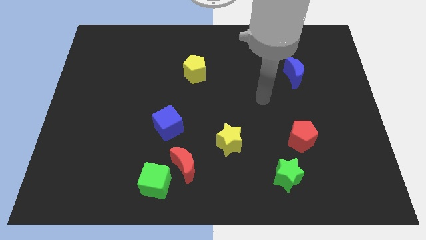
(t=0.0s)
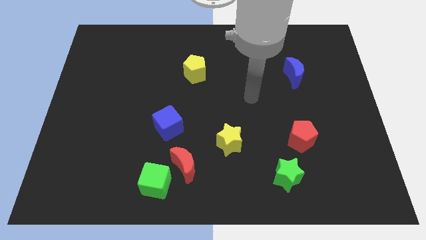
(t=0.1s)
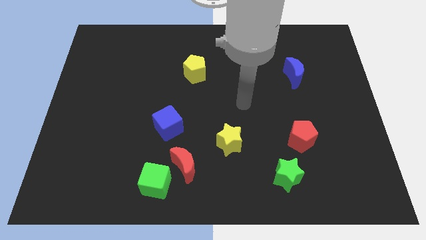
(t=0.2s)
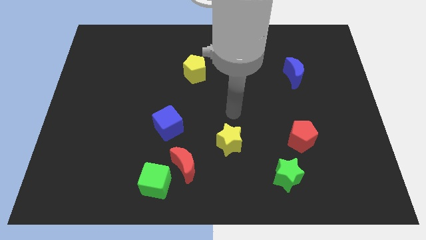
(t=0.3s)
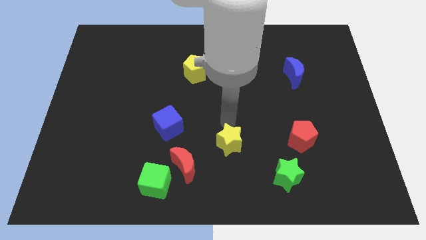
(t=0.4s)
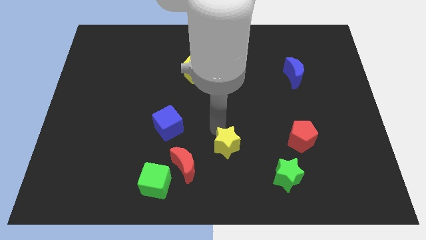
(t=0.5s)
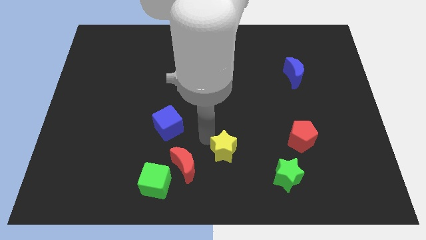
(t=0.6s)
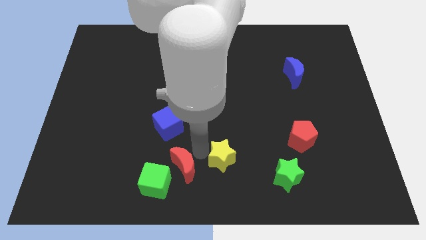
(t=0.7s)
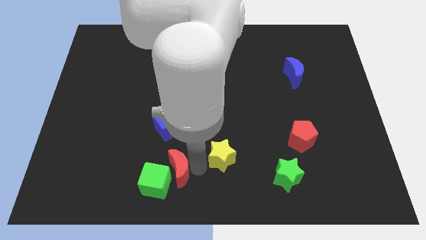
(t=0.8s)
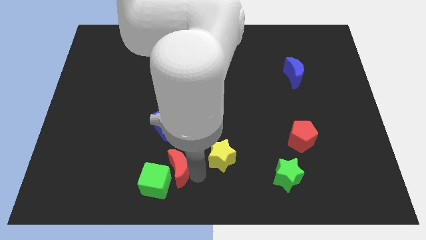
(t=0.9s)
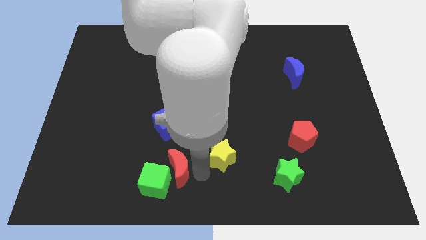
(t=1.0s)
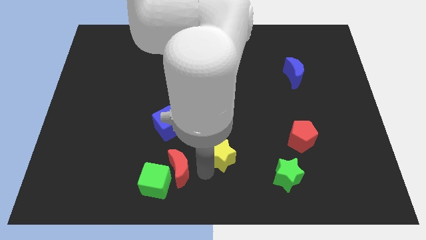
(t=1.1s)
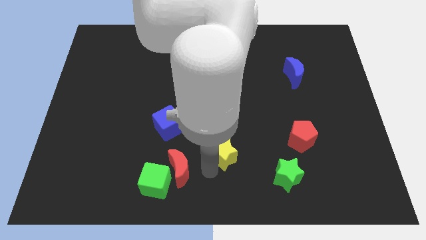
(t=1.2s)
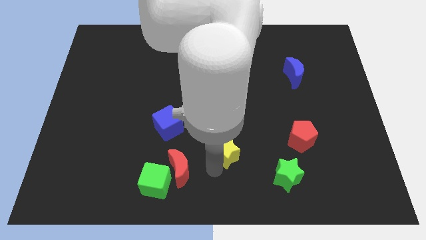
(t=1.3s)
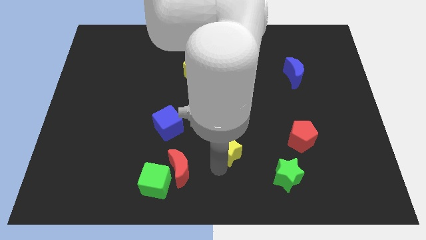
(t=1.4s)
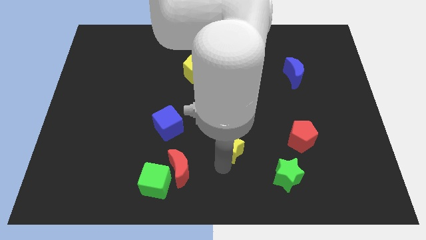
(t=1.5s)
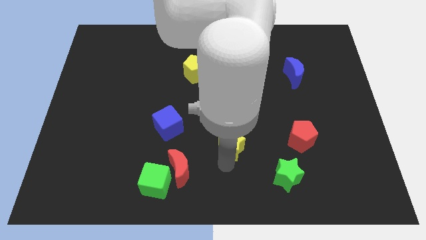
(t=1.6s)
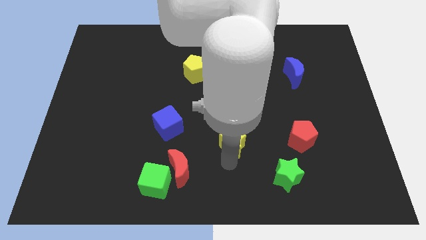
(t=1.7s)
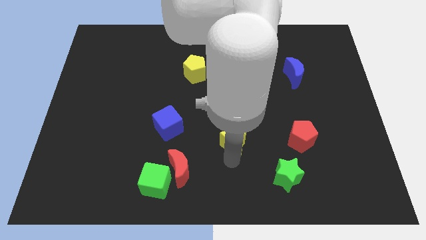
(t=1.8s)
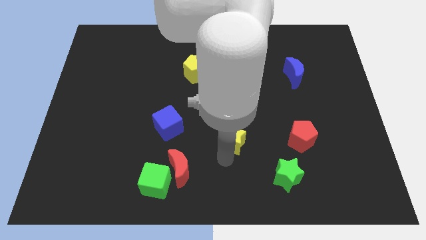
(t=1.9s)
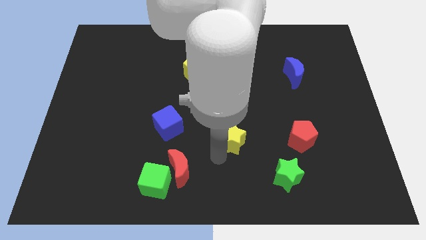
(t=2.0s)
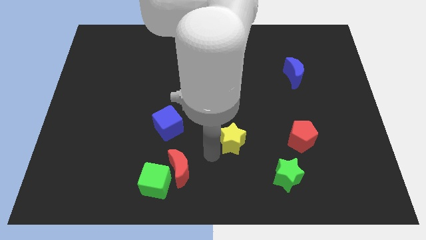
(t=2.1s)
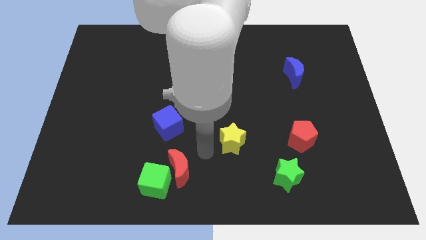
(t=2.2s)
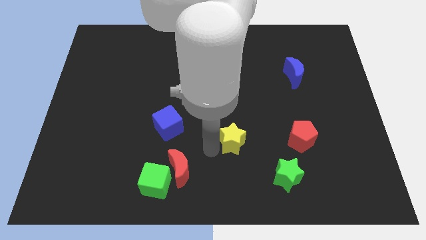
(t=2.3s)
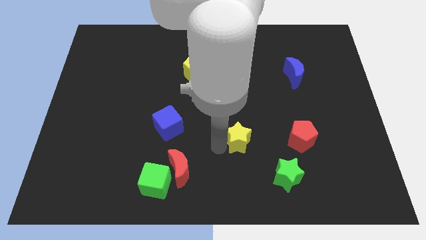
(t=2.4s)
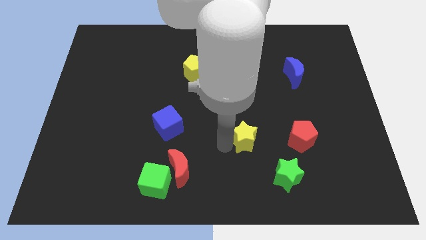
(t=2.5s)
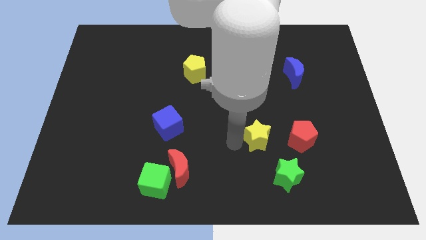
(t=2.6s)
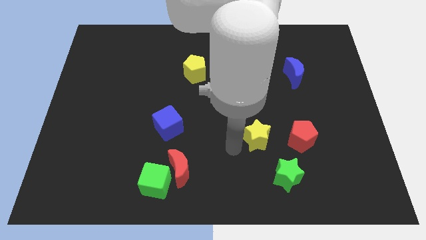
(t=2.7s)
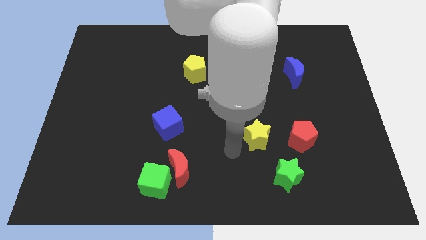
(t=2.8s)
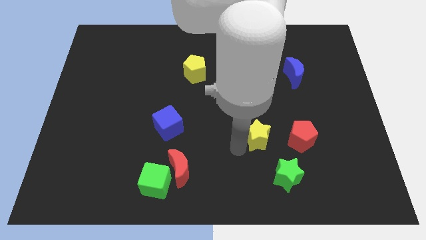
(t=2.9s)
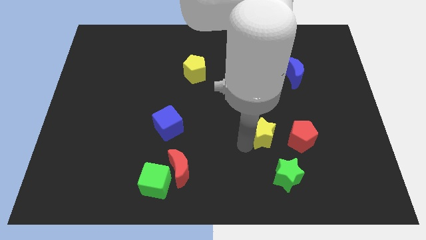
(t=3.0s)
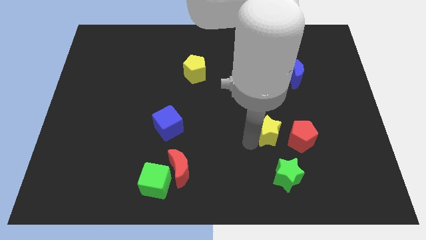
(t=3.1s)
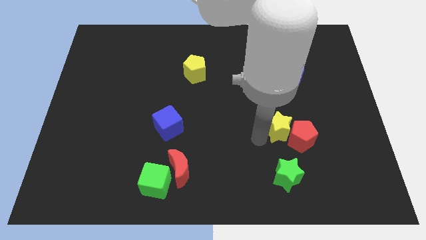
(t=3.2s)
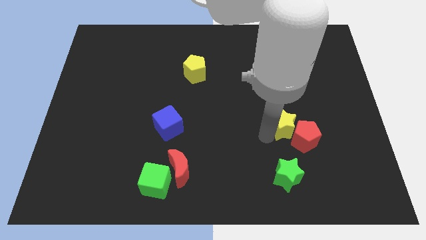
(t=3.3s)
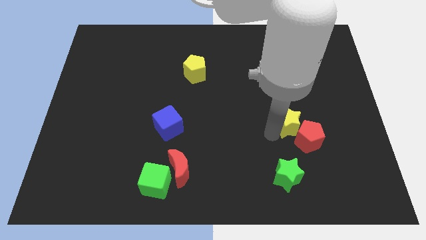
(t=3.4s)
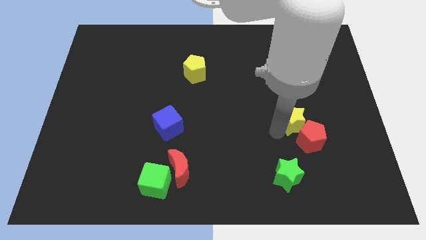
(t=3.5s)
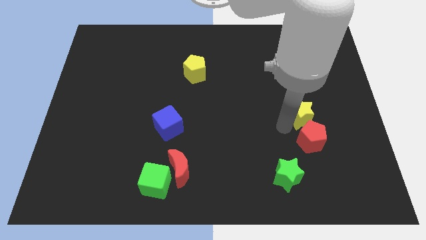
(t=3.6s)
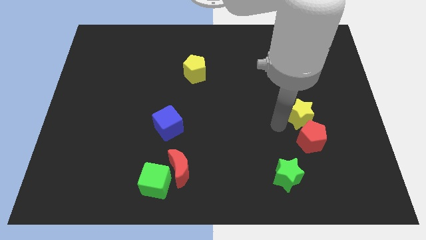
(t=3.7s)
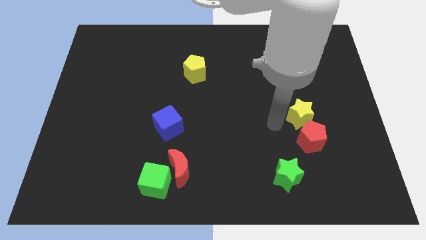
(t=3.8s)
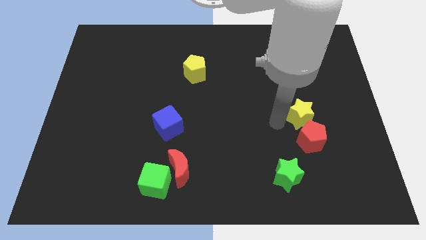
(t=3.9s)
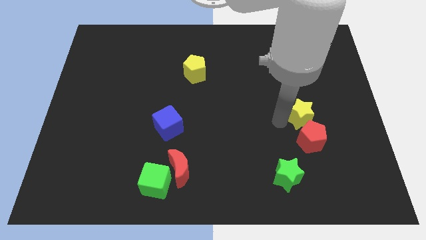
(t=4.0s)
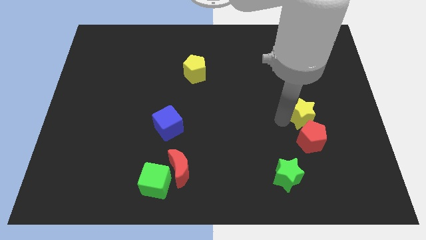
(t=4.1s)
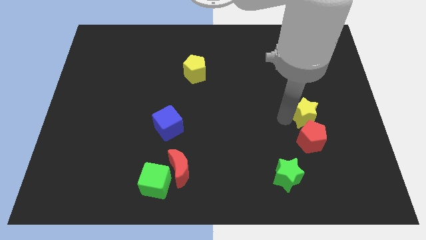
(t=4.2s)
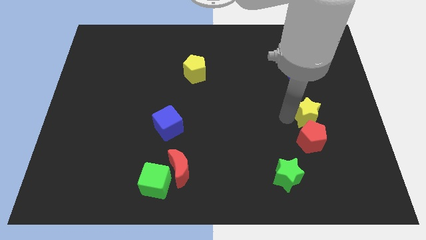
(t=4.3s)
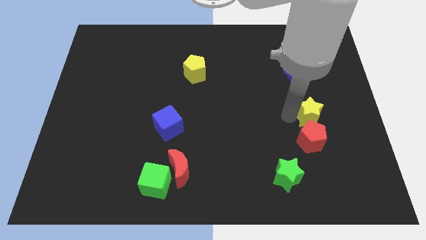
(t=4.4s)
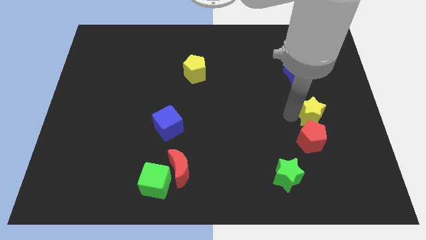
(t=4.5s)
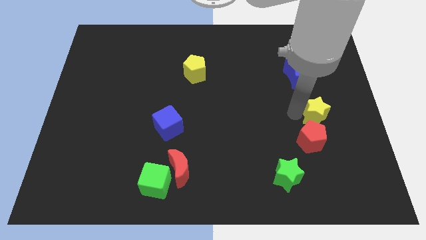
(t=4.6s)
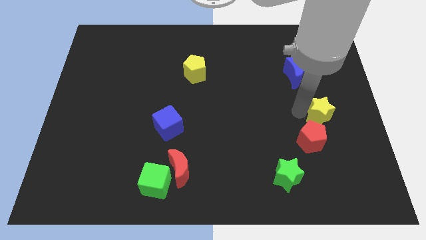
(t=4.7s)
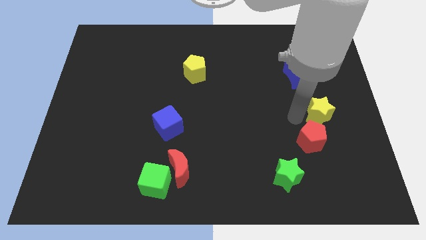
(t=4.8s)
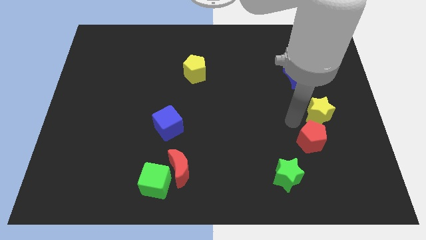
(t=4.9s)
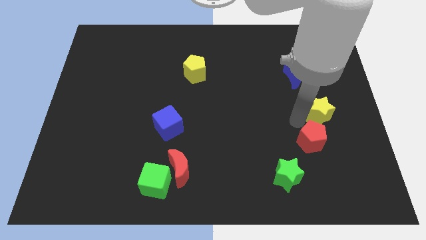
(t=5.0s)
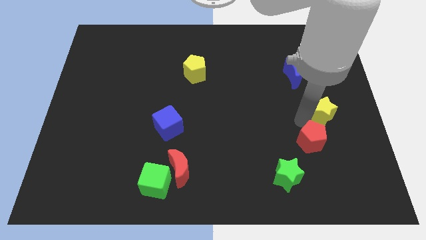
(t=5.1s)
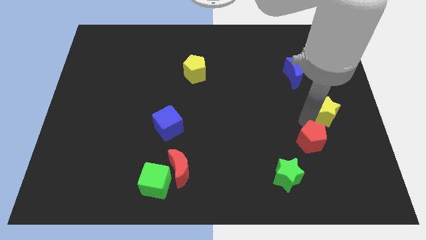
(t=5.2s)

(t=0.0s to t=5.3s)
move the yellow star to the right side of the board

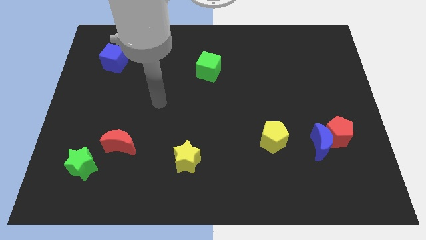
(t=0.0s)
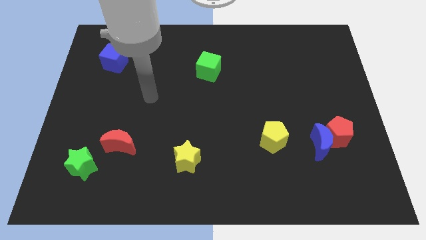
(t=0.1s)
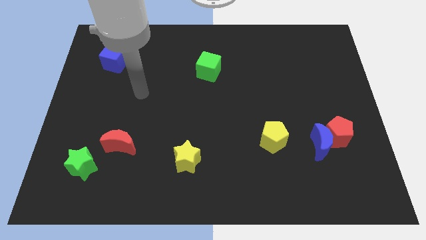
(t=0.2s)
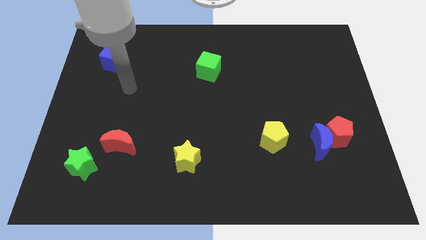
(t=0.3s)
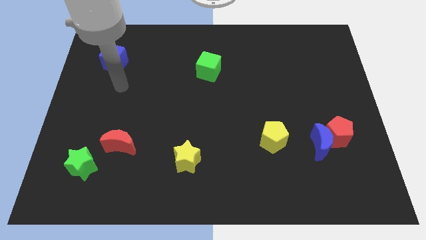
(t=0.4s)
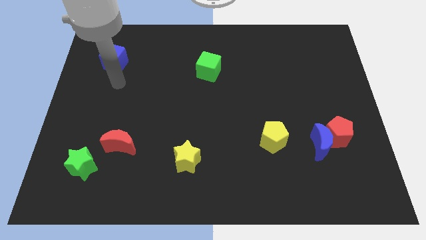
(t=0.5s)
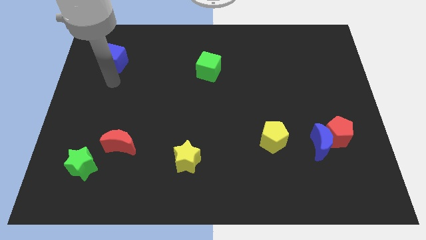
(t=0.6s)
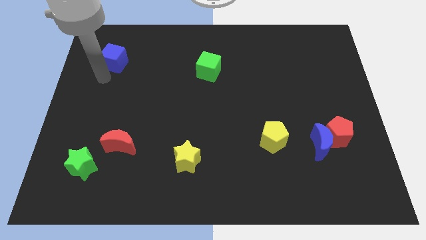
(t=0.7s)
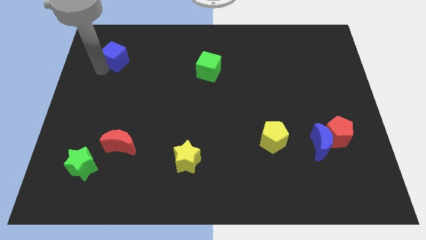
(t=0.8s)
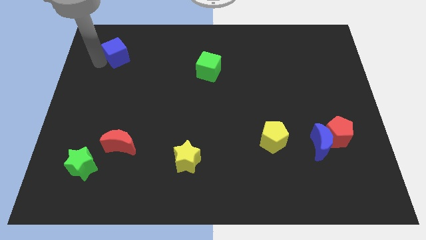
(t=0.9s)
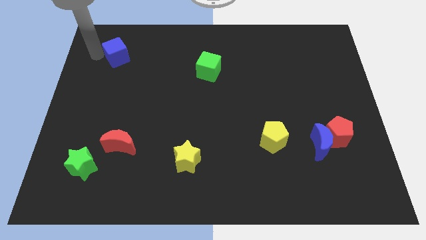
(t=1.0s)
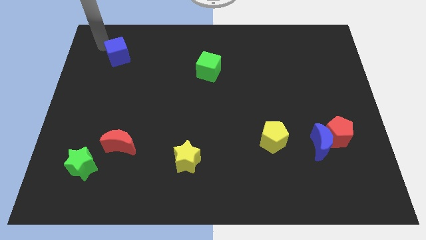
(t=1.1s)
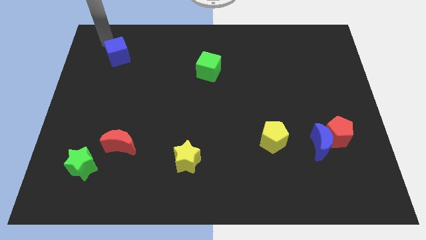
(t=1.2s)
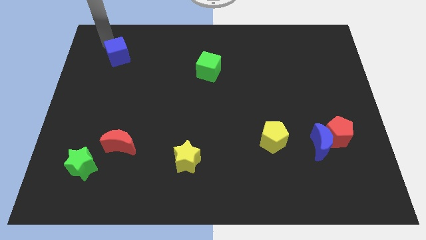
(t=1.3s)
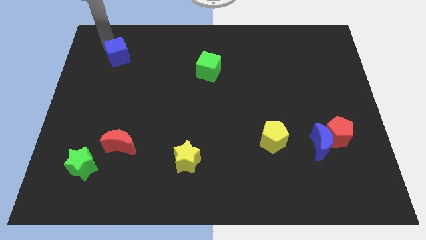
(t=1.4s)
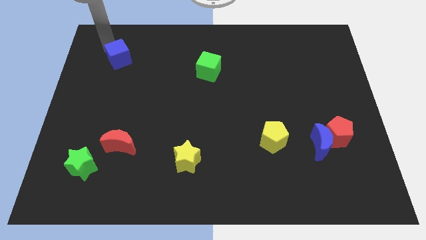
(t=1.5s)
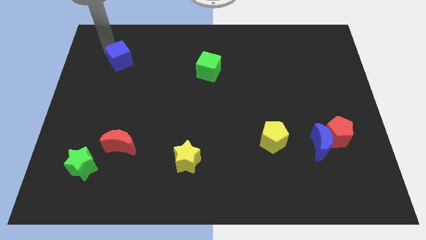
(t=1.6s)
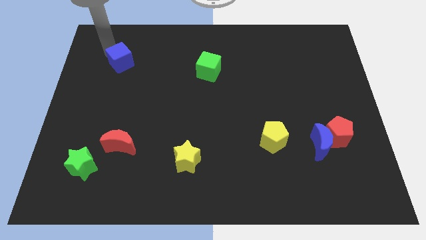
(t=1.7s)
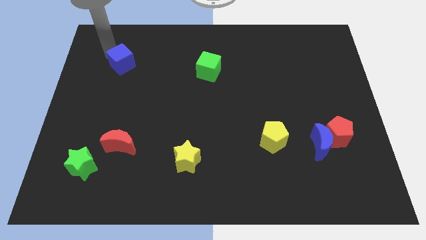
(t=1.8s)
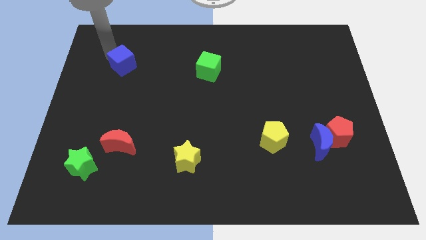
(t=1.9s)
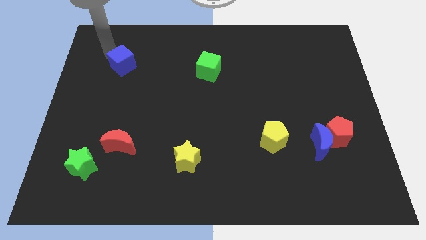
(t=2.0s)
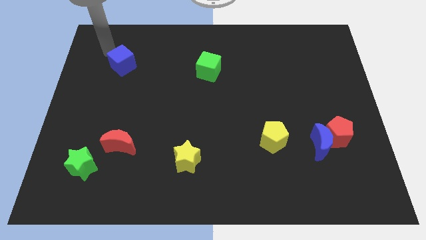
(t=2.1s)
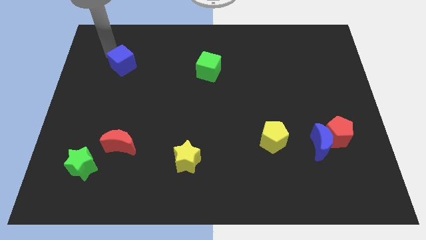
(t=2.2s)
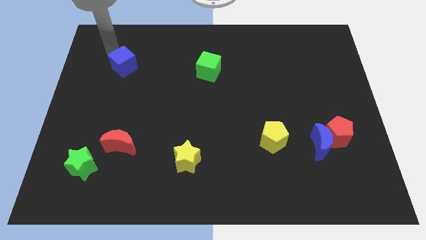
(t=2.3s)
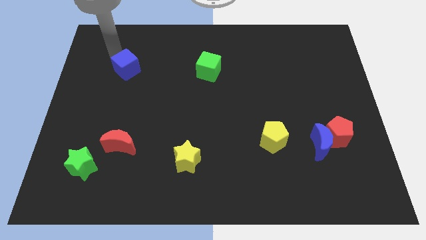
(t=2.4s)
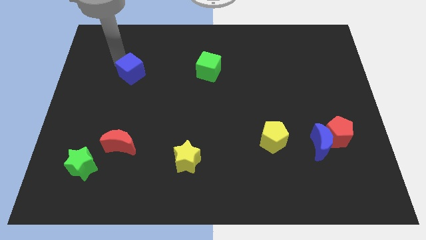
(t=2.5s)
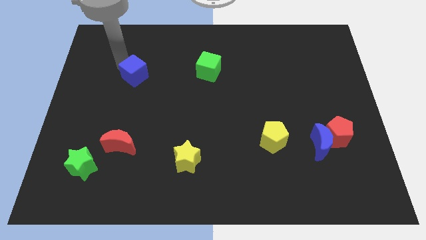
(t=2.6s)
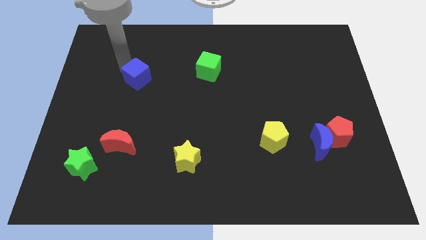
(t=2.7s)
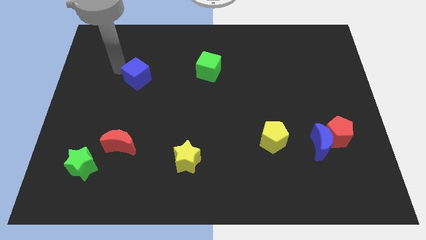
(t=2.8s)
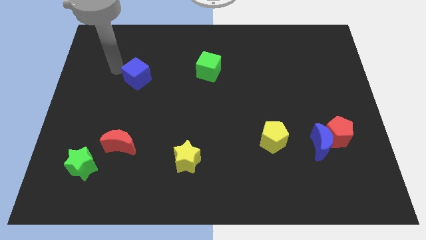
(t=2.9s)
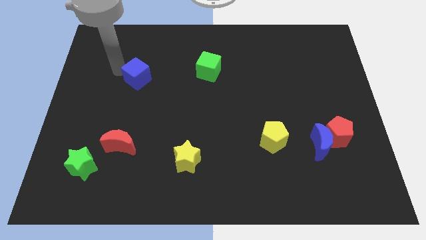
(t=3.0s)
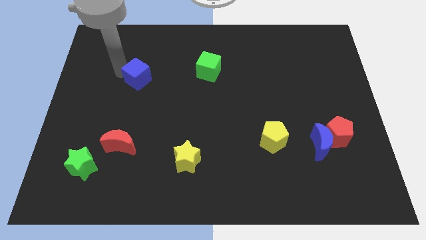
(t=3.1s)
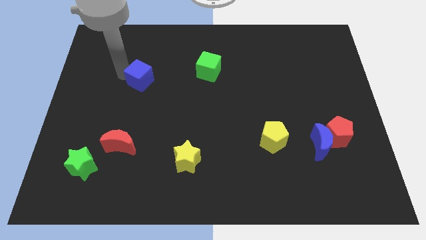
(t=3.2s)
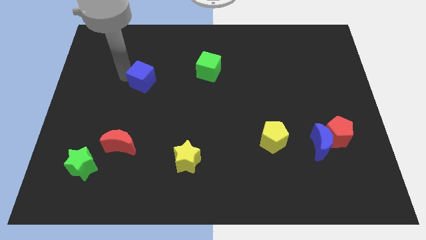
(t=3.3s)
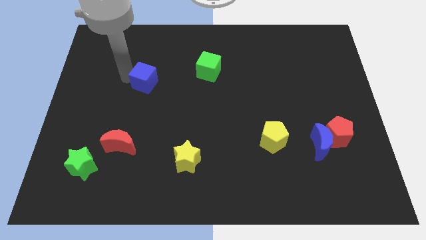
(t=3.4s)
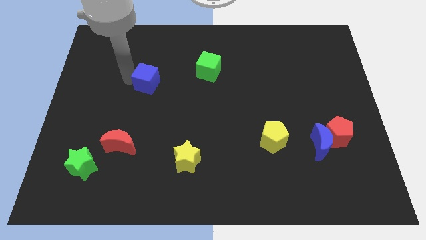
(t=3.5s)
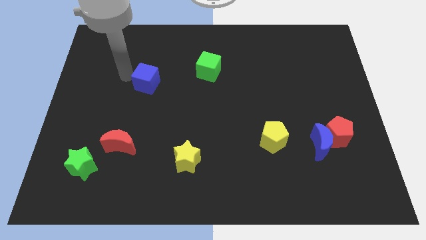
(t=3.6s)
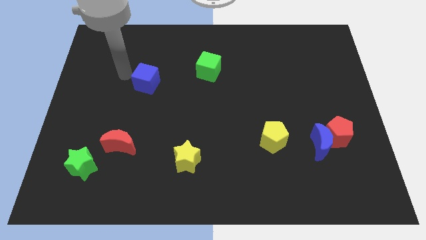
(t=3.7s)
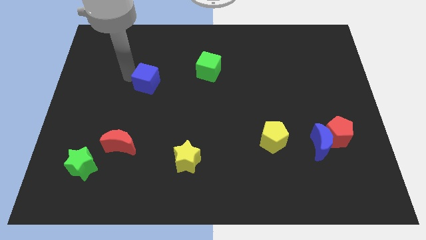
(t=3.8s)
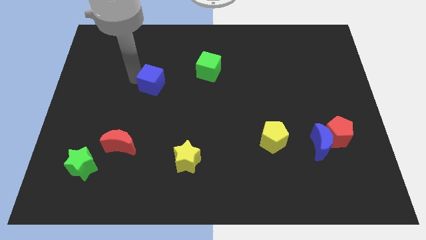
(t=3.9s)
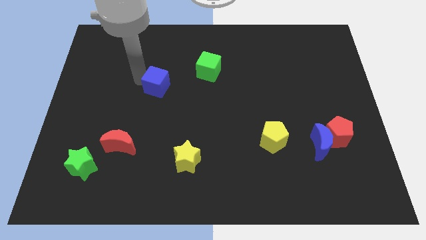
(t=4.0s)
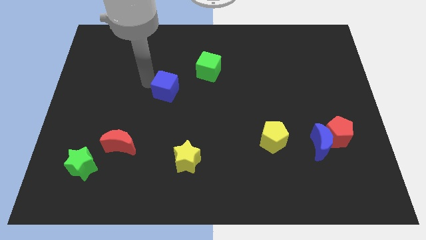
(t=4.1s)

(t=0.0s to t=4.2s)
slide the blue cube to the middle
